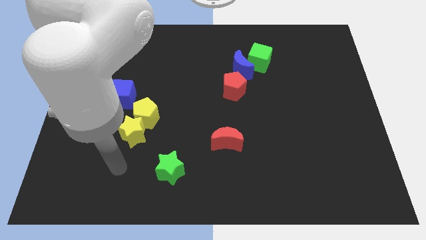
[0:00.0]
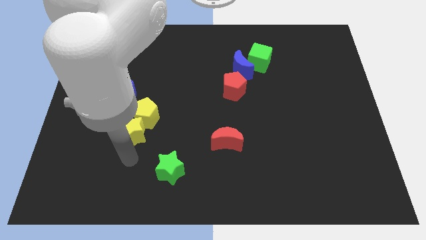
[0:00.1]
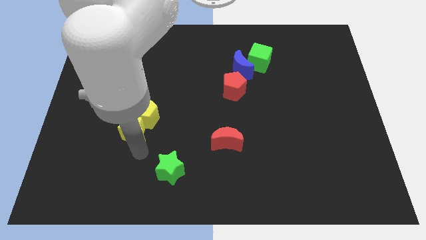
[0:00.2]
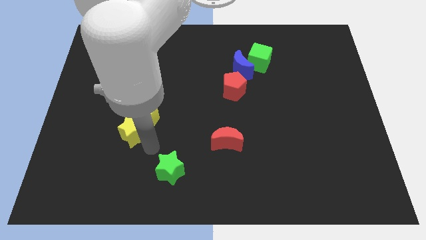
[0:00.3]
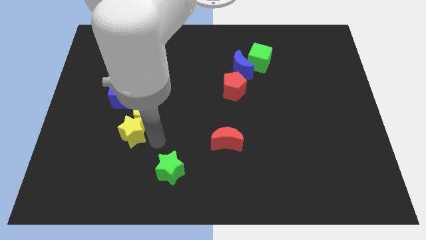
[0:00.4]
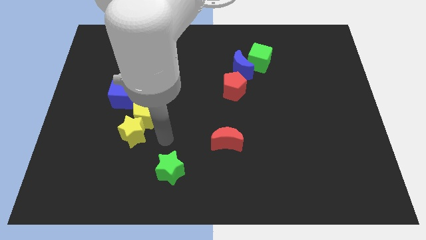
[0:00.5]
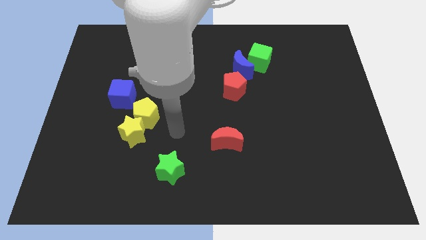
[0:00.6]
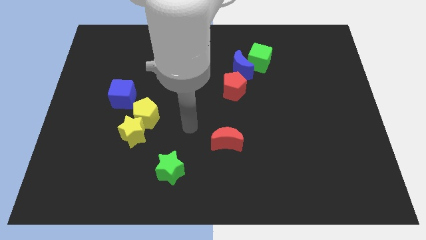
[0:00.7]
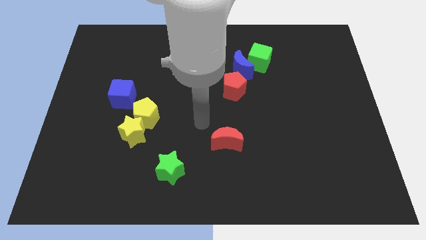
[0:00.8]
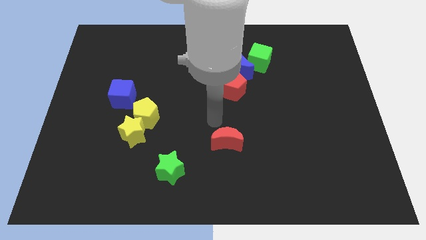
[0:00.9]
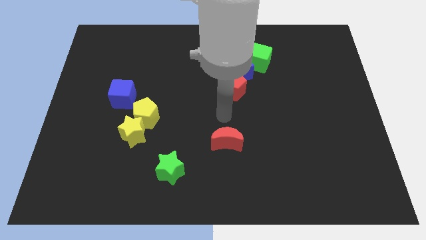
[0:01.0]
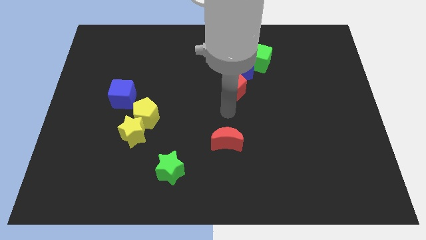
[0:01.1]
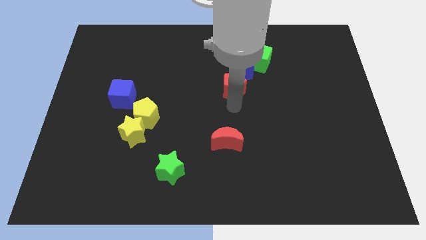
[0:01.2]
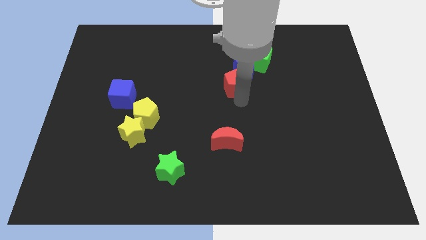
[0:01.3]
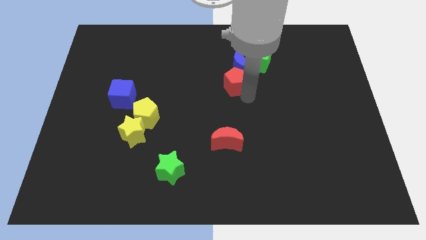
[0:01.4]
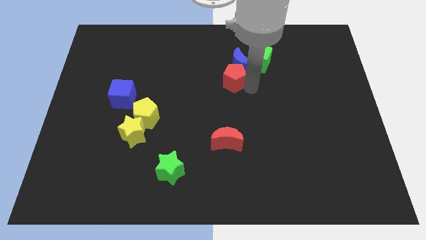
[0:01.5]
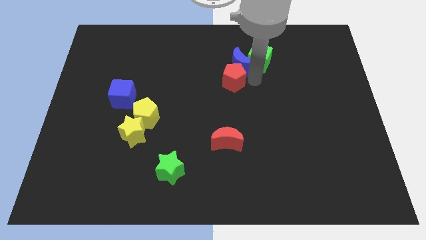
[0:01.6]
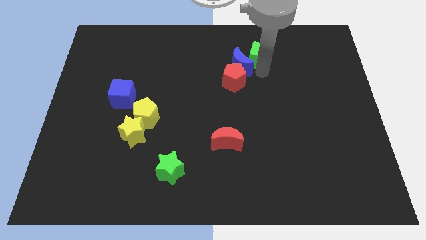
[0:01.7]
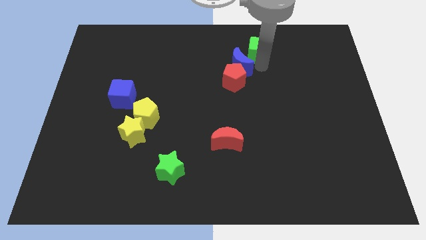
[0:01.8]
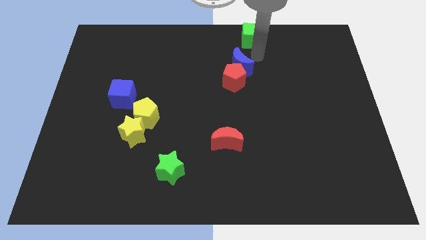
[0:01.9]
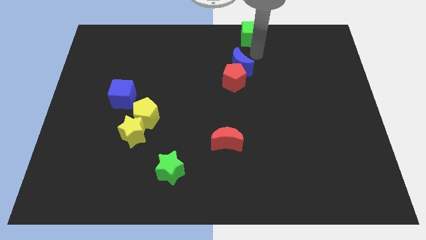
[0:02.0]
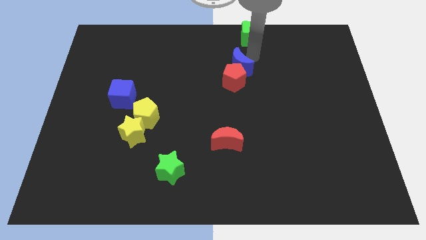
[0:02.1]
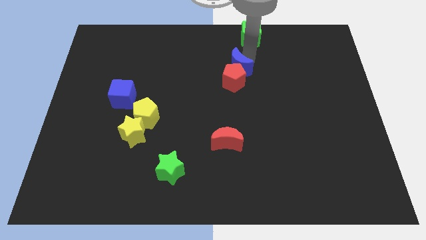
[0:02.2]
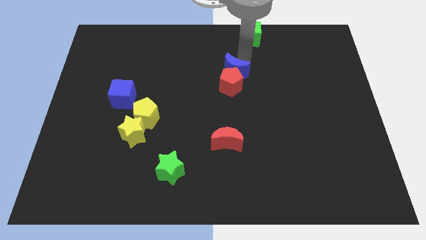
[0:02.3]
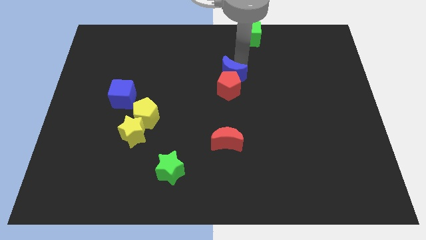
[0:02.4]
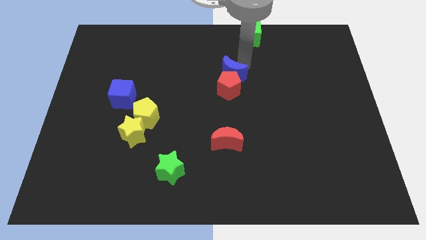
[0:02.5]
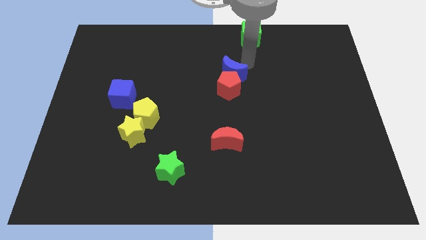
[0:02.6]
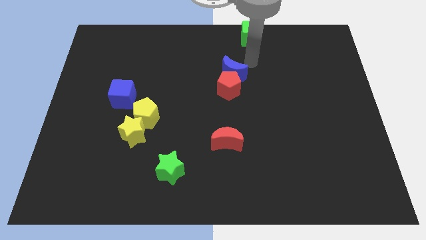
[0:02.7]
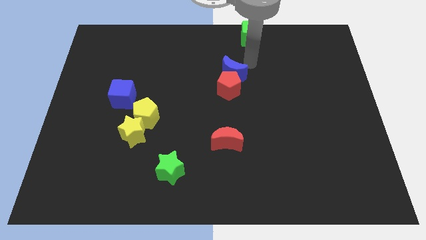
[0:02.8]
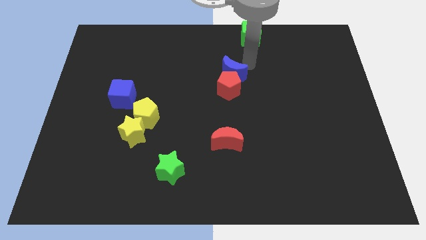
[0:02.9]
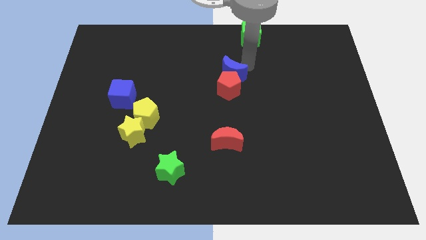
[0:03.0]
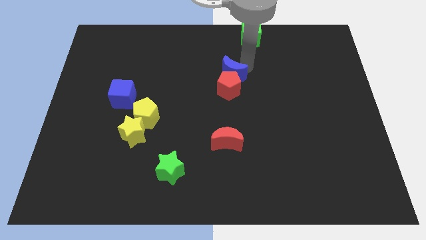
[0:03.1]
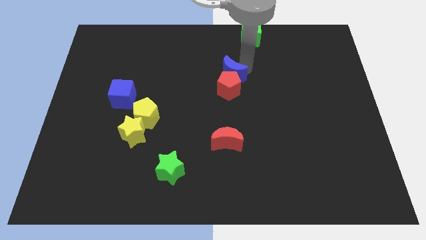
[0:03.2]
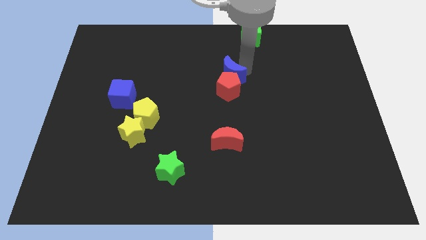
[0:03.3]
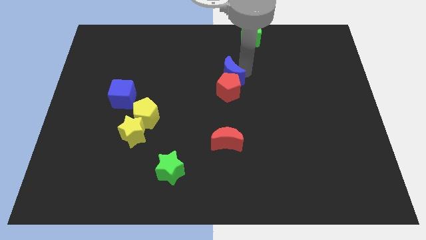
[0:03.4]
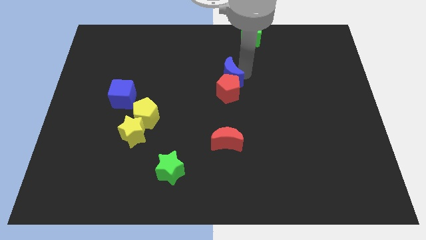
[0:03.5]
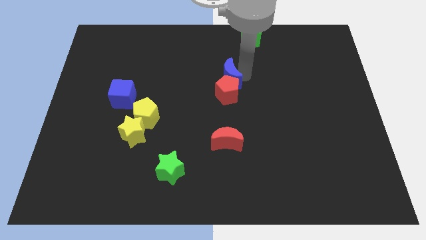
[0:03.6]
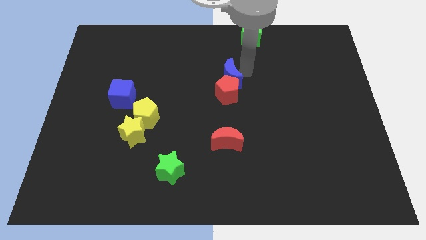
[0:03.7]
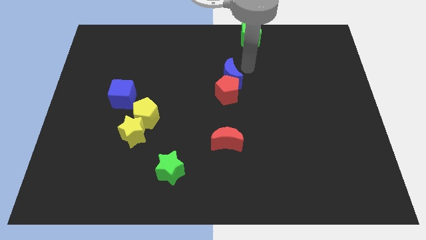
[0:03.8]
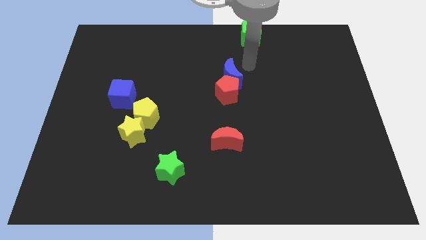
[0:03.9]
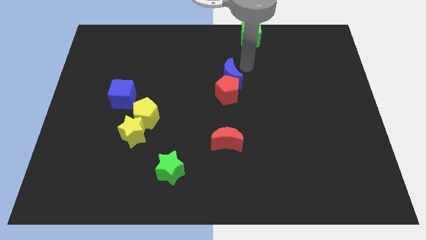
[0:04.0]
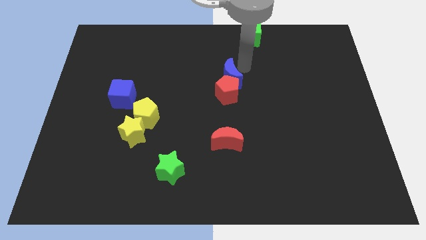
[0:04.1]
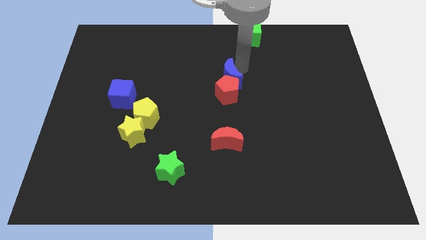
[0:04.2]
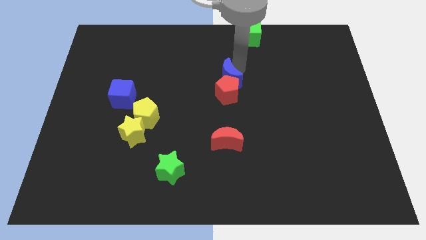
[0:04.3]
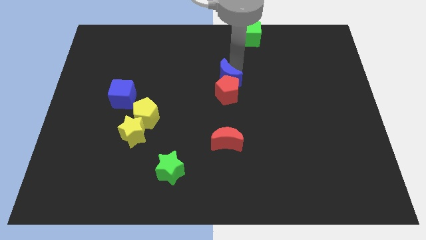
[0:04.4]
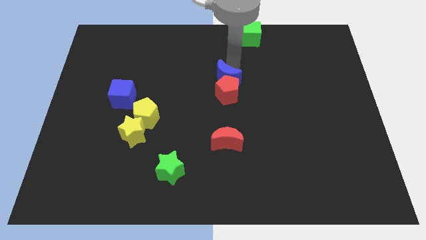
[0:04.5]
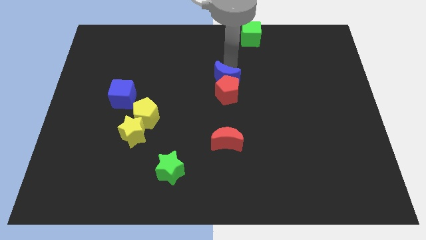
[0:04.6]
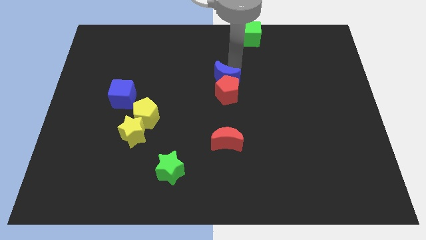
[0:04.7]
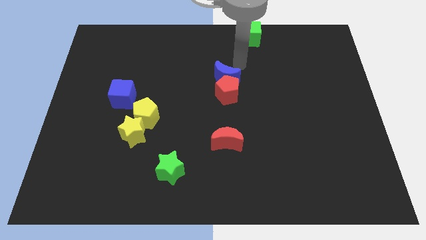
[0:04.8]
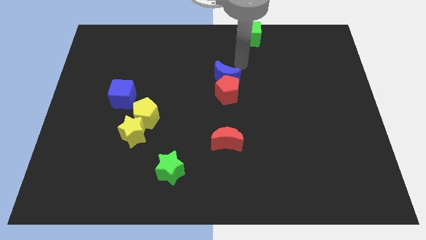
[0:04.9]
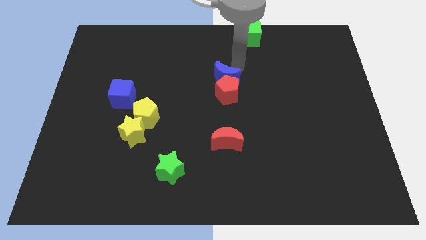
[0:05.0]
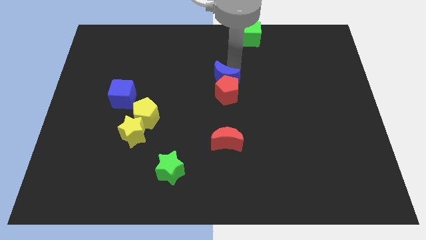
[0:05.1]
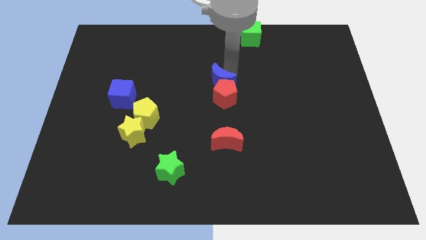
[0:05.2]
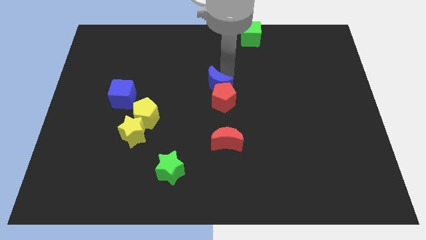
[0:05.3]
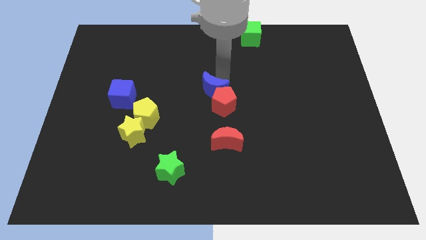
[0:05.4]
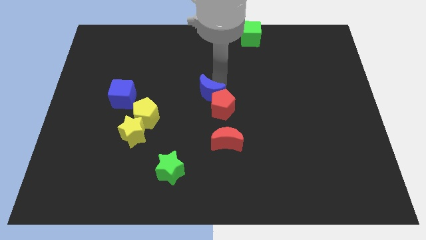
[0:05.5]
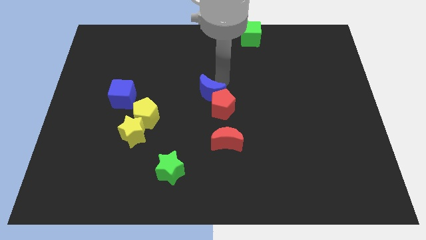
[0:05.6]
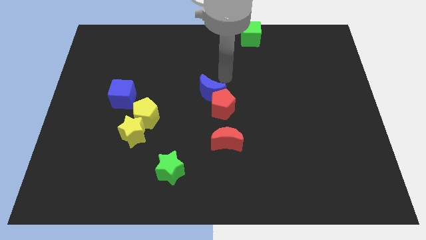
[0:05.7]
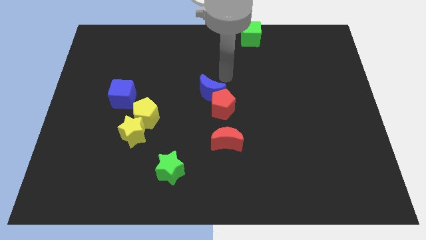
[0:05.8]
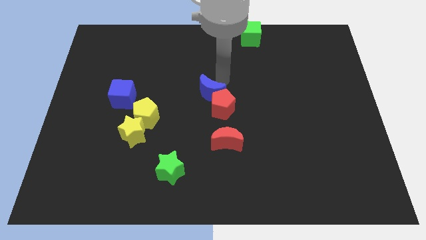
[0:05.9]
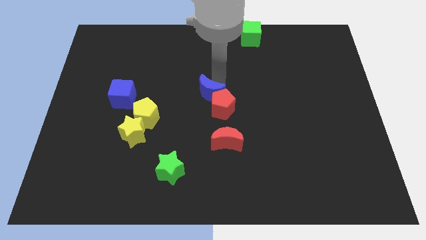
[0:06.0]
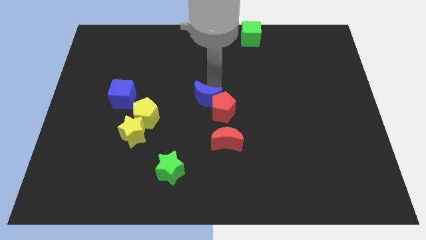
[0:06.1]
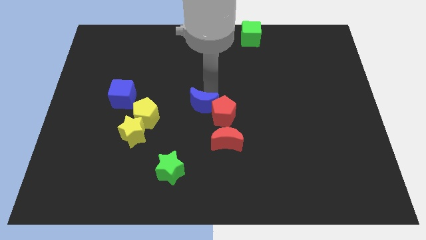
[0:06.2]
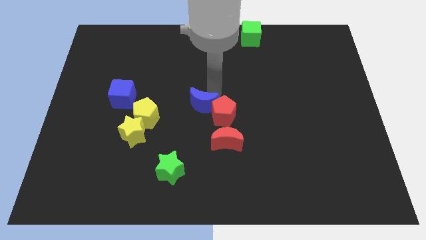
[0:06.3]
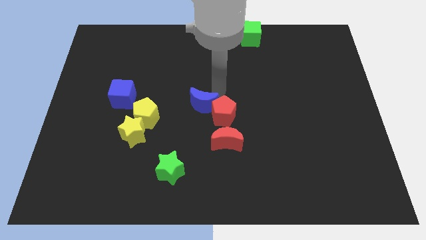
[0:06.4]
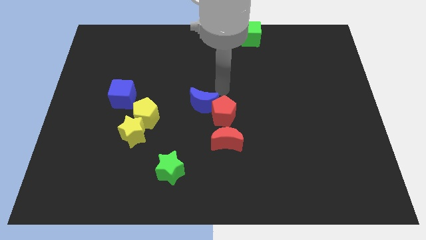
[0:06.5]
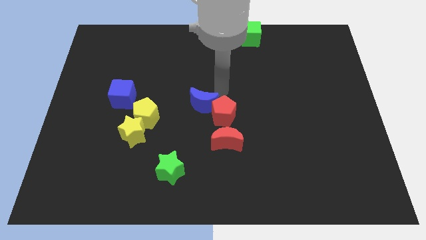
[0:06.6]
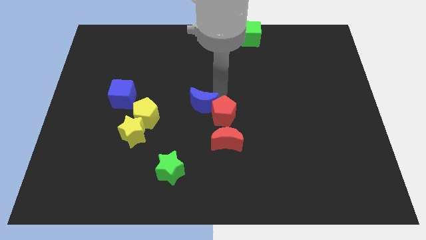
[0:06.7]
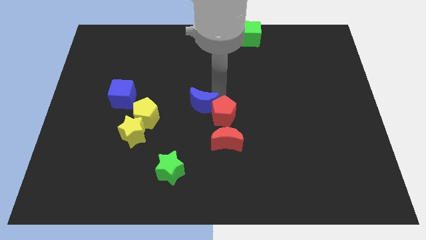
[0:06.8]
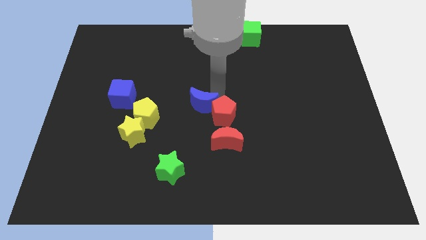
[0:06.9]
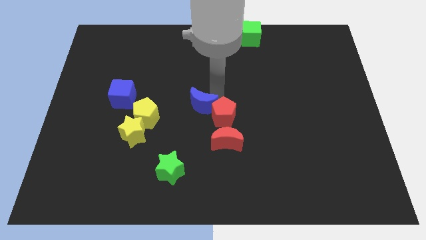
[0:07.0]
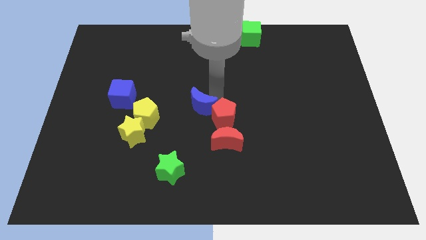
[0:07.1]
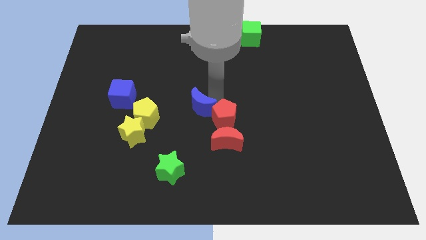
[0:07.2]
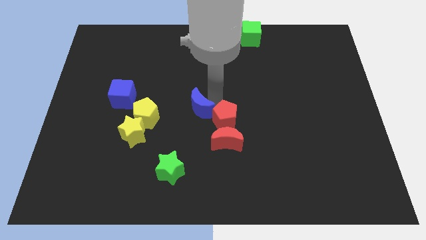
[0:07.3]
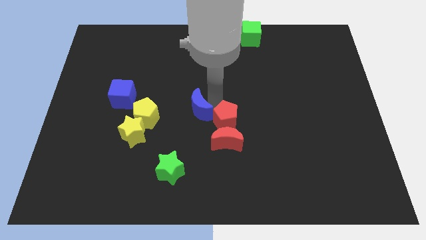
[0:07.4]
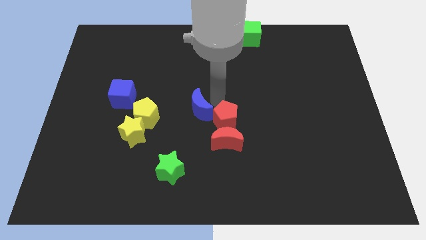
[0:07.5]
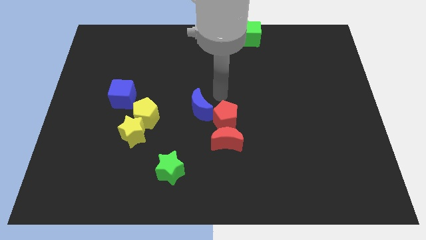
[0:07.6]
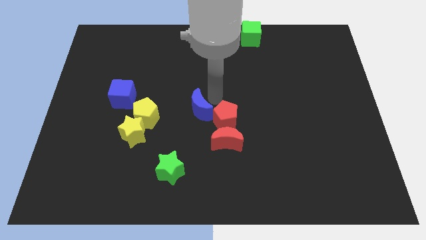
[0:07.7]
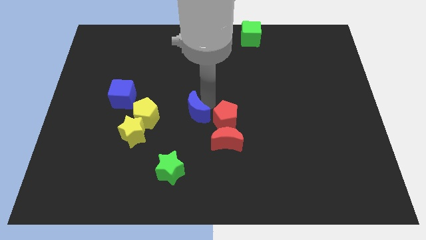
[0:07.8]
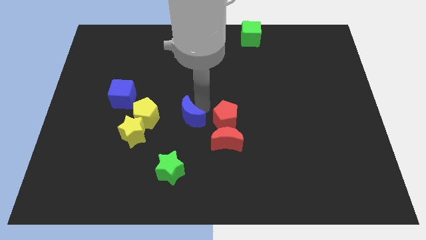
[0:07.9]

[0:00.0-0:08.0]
slide the blue moon above the green star
